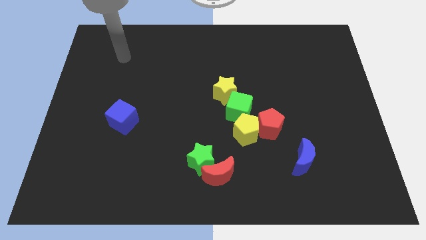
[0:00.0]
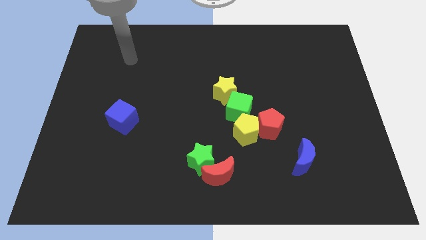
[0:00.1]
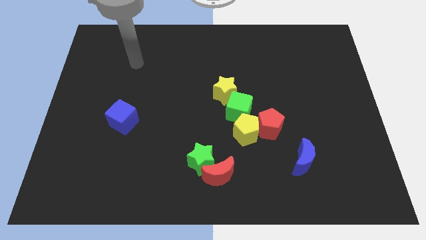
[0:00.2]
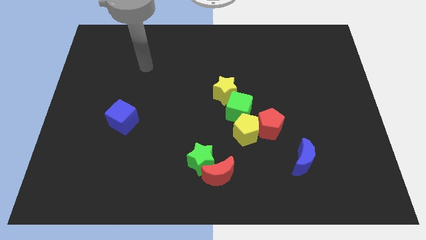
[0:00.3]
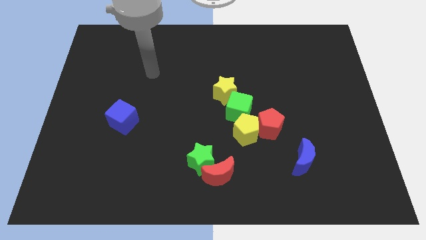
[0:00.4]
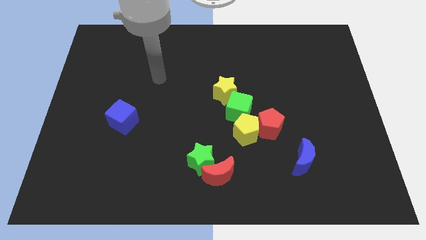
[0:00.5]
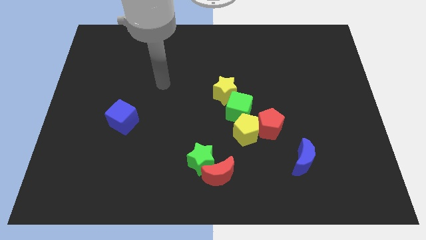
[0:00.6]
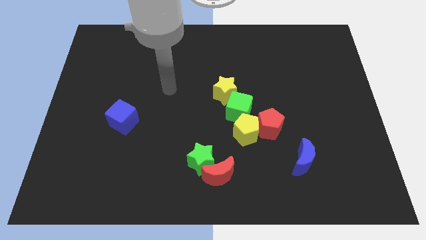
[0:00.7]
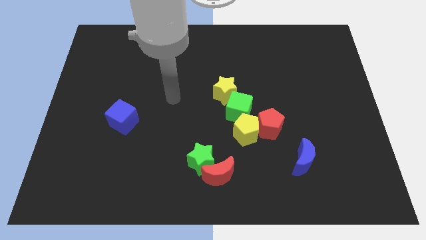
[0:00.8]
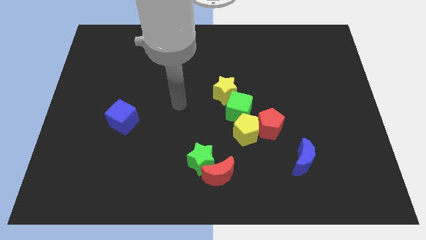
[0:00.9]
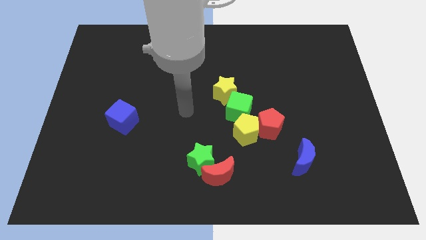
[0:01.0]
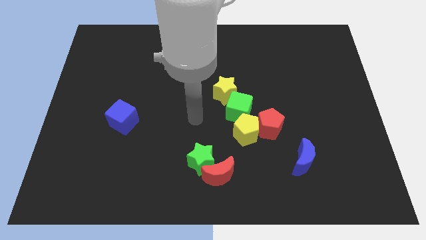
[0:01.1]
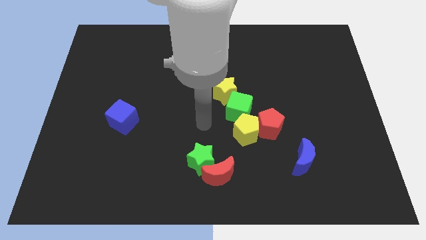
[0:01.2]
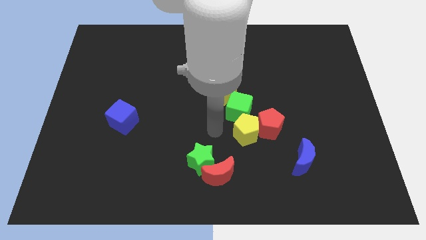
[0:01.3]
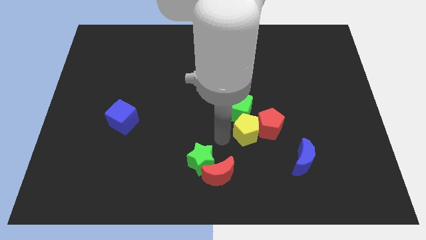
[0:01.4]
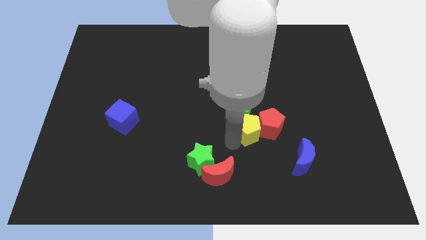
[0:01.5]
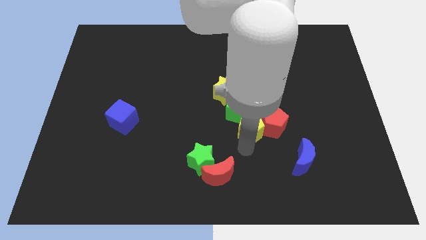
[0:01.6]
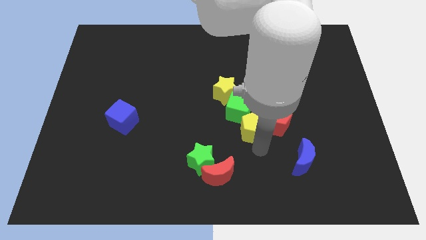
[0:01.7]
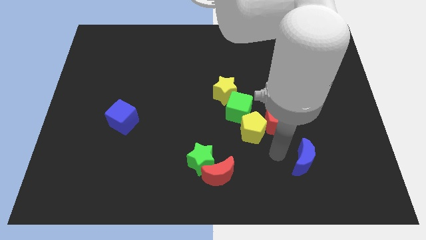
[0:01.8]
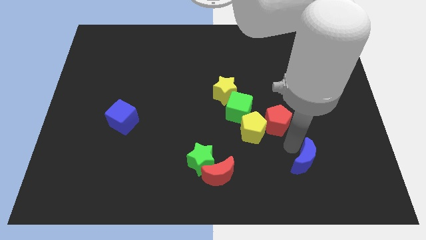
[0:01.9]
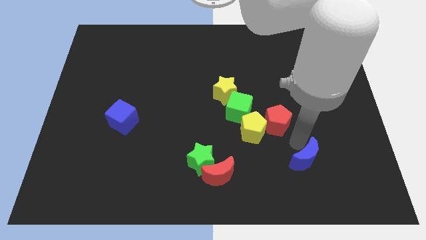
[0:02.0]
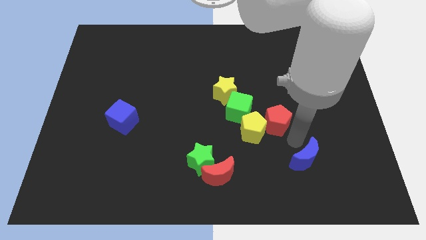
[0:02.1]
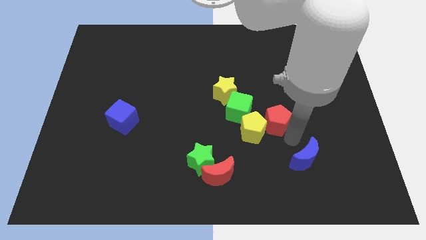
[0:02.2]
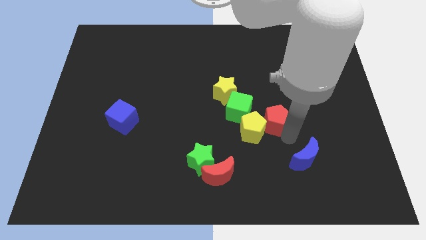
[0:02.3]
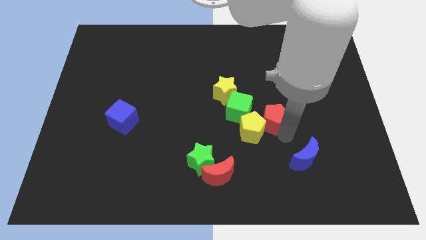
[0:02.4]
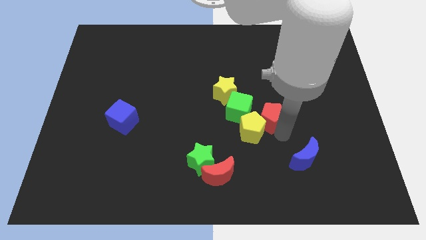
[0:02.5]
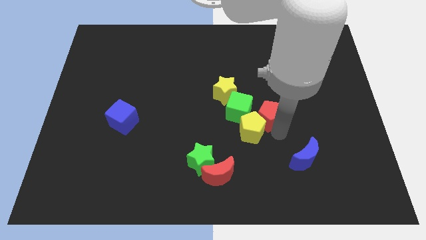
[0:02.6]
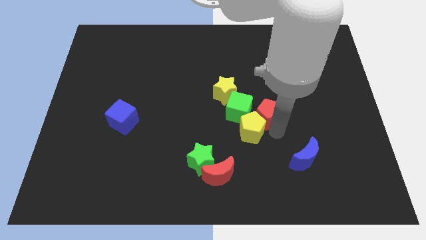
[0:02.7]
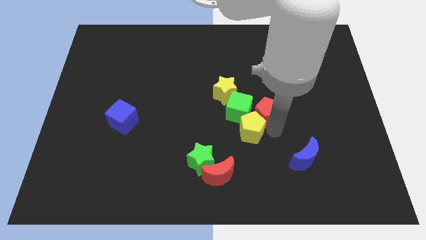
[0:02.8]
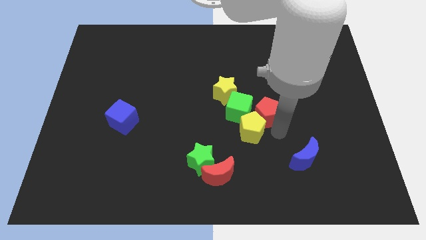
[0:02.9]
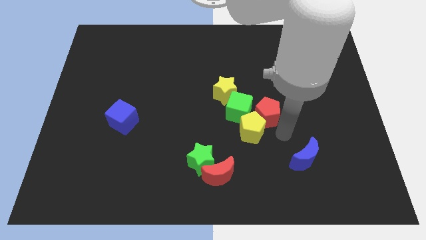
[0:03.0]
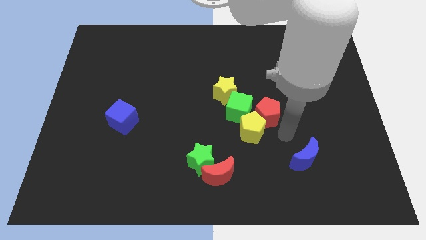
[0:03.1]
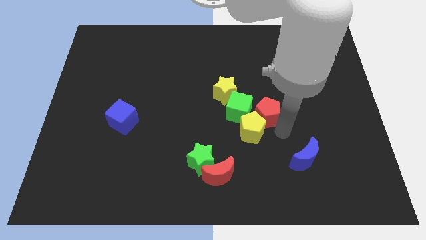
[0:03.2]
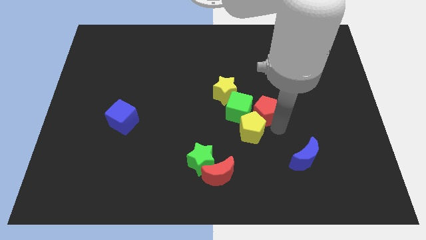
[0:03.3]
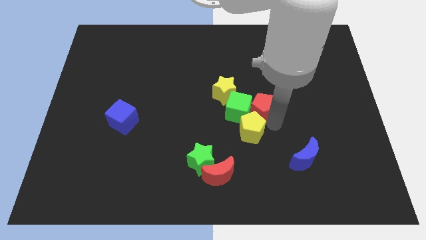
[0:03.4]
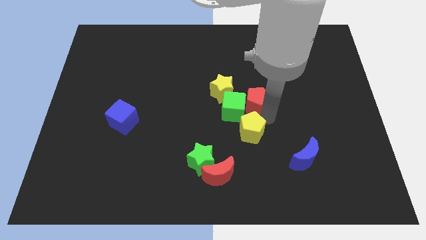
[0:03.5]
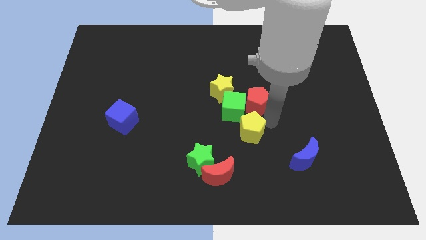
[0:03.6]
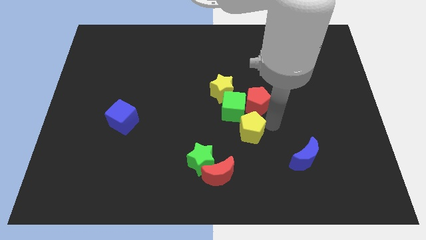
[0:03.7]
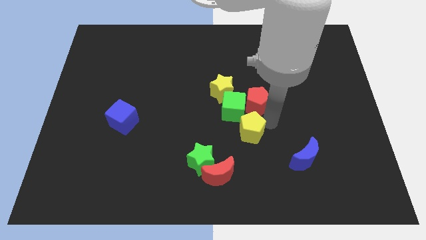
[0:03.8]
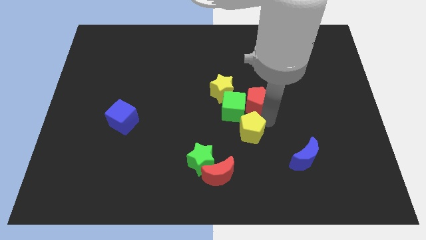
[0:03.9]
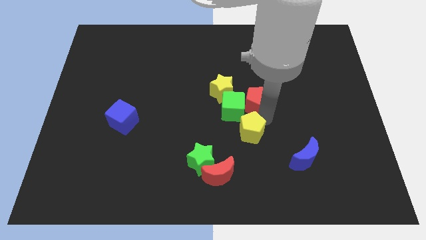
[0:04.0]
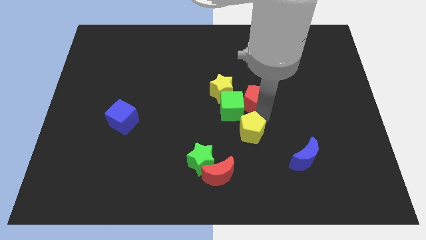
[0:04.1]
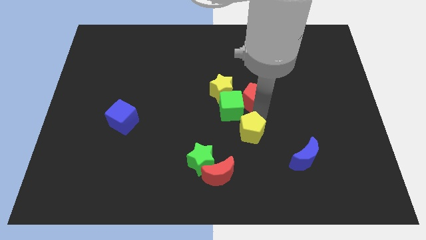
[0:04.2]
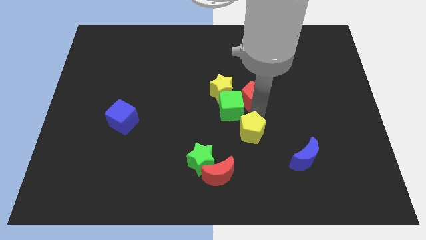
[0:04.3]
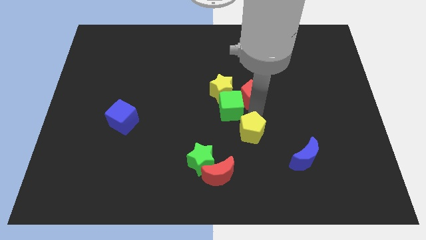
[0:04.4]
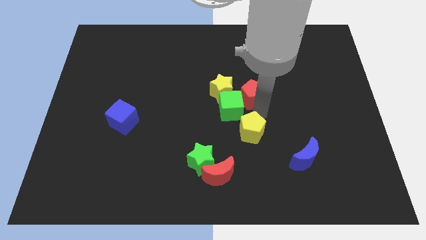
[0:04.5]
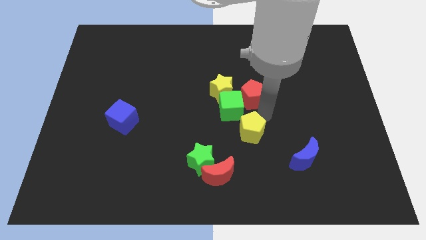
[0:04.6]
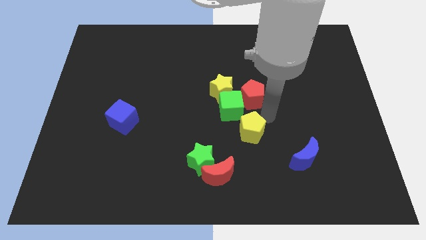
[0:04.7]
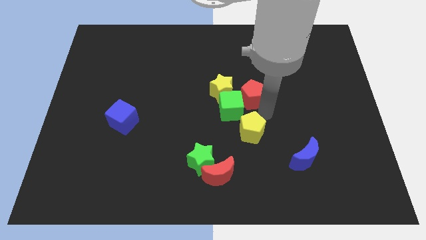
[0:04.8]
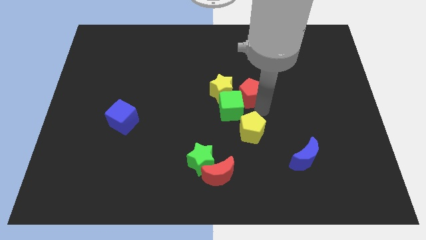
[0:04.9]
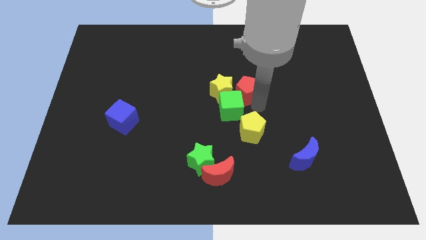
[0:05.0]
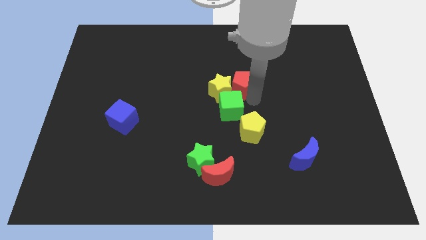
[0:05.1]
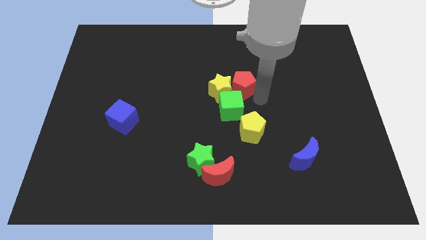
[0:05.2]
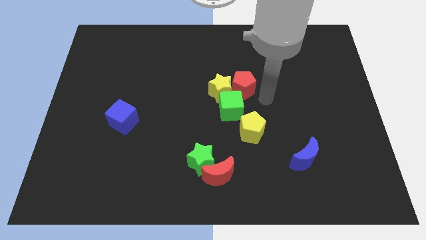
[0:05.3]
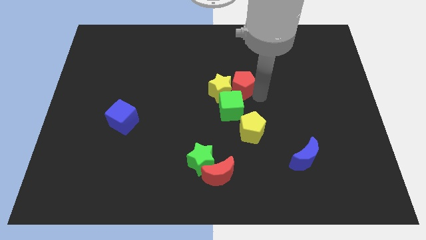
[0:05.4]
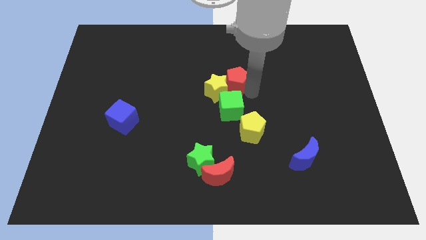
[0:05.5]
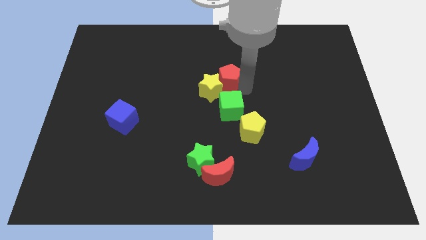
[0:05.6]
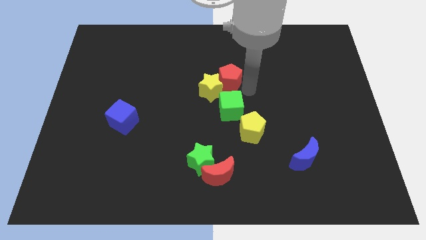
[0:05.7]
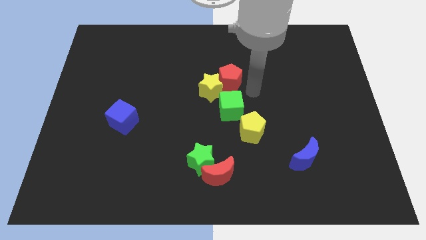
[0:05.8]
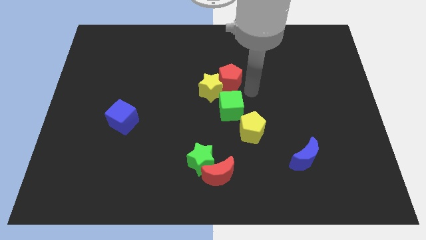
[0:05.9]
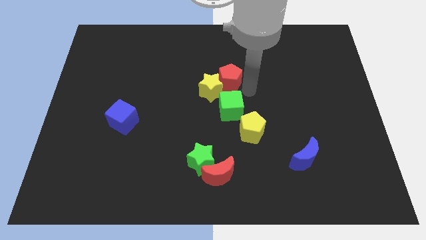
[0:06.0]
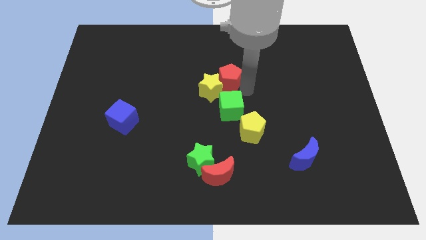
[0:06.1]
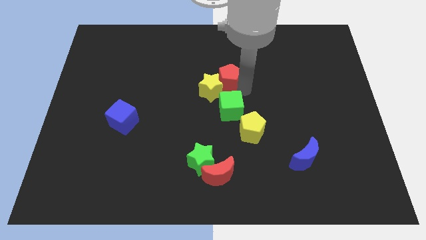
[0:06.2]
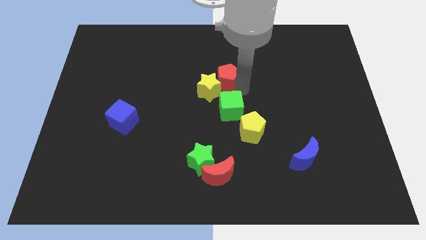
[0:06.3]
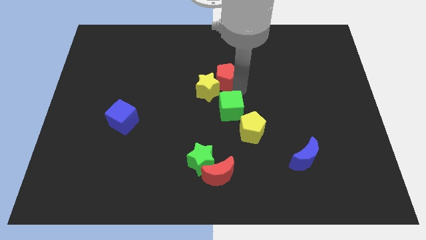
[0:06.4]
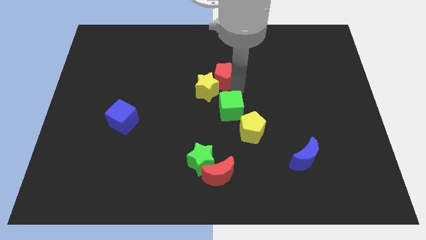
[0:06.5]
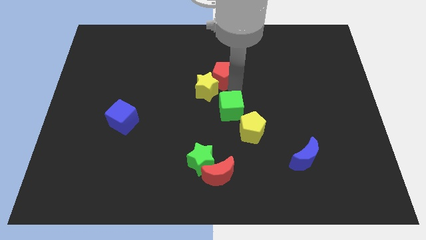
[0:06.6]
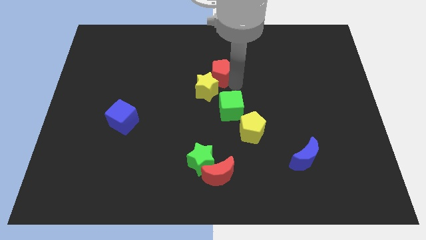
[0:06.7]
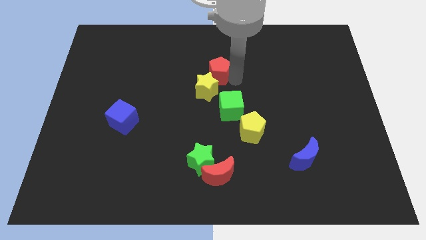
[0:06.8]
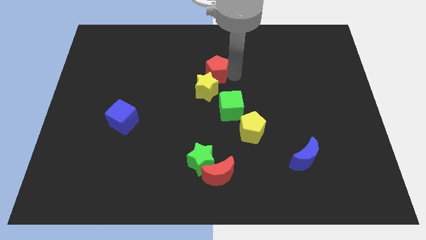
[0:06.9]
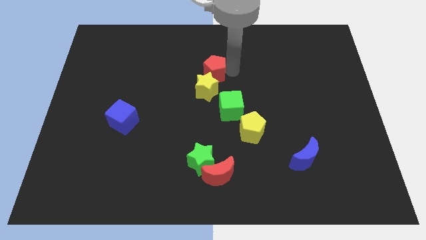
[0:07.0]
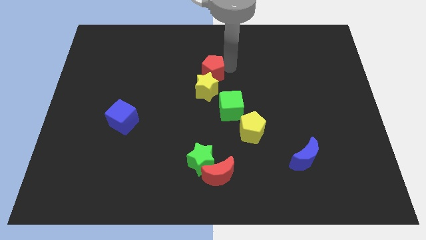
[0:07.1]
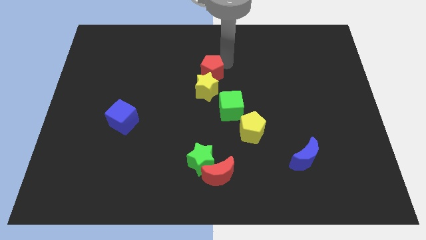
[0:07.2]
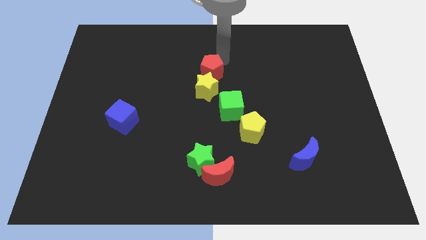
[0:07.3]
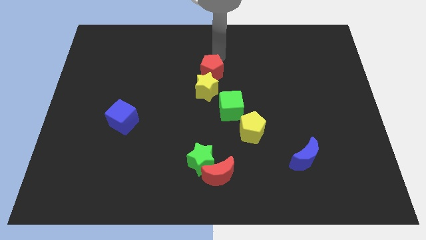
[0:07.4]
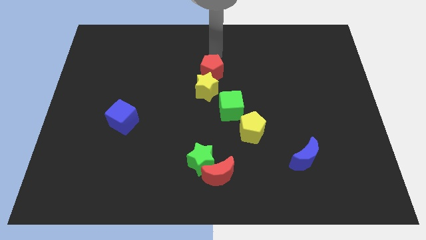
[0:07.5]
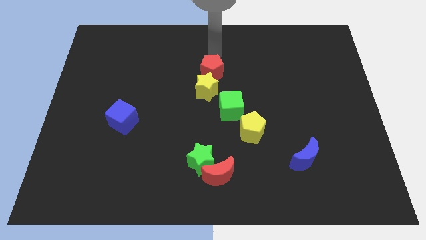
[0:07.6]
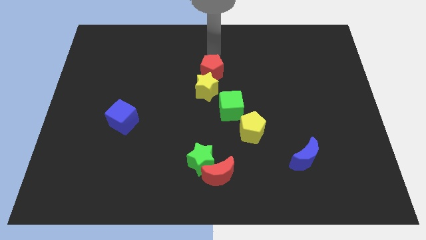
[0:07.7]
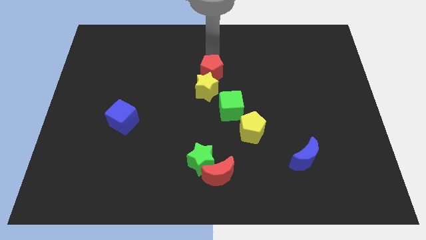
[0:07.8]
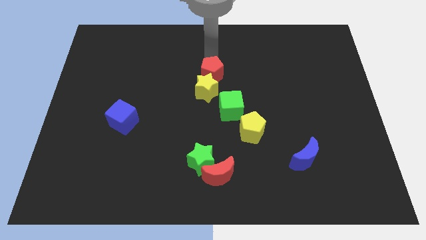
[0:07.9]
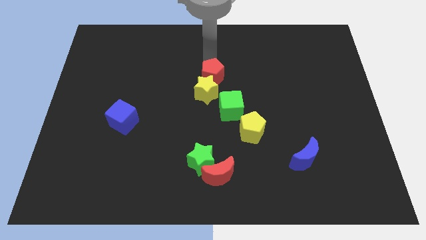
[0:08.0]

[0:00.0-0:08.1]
put the red pentagon to the top left of the green cube

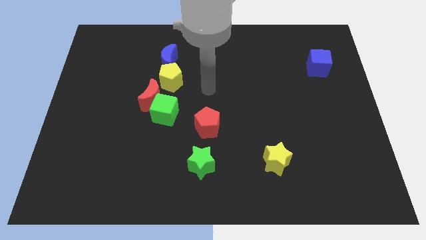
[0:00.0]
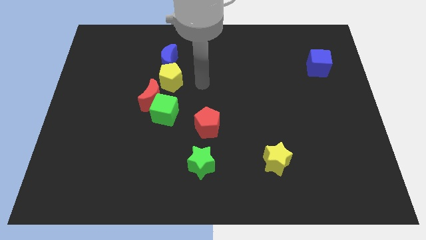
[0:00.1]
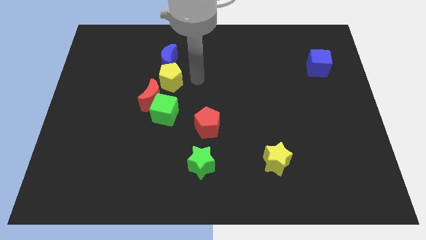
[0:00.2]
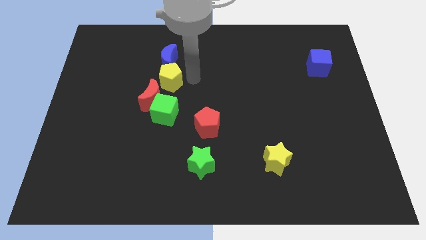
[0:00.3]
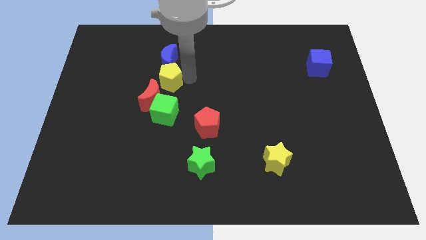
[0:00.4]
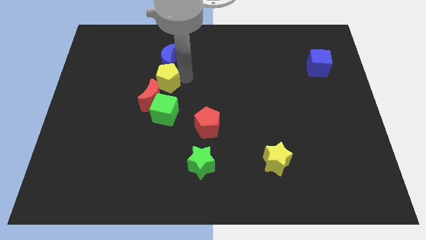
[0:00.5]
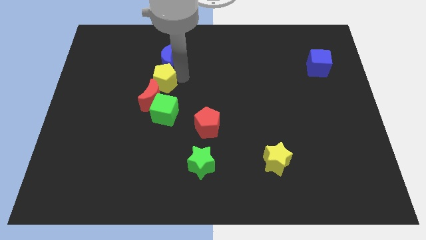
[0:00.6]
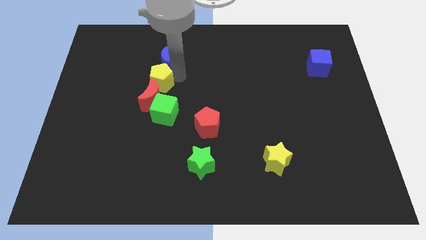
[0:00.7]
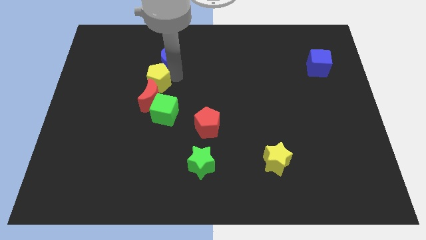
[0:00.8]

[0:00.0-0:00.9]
push the yellow pentagon to the top left of the red moon
